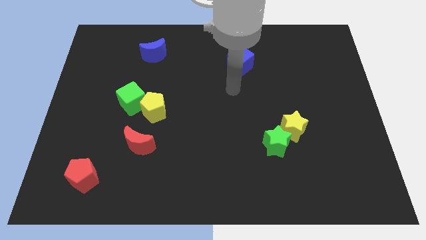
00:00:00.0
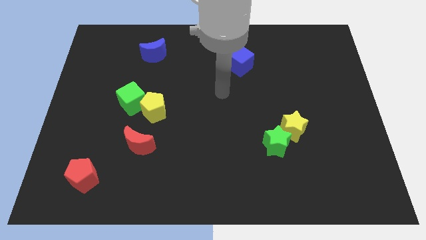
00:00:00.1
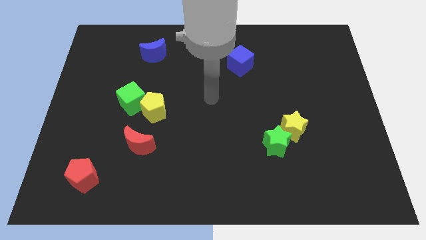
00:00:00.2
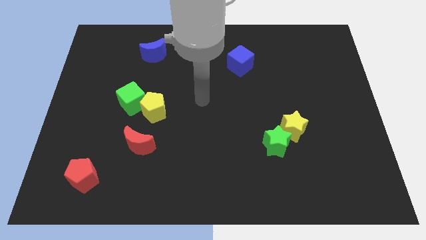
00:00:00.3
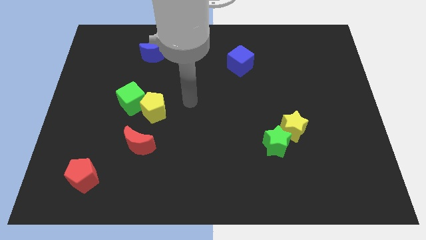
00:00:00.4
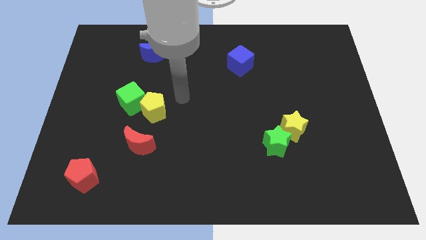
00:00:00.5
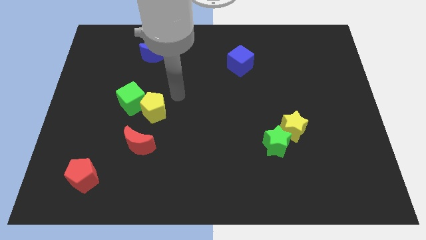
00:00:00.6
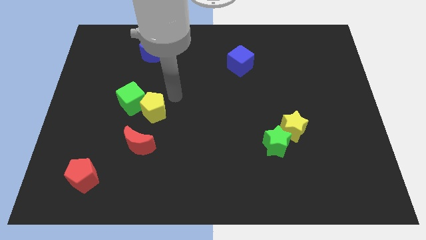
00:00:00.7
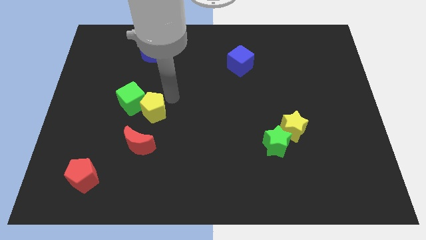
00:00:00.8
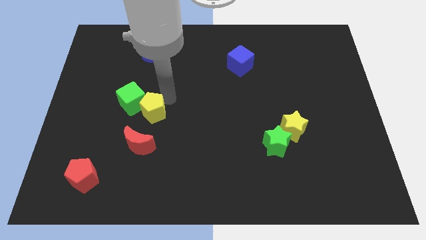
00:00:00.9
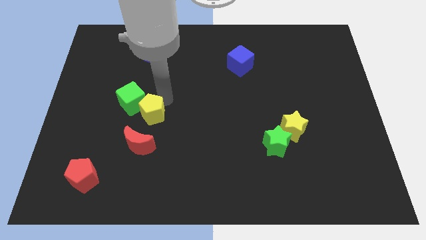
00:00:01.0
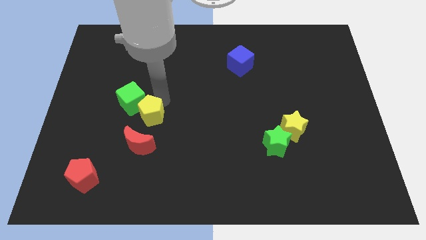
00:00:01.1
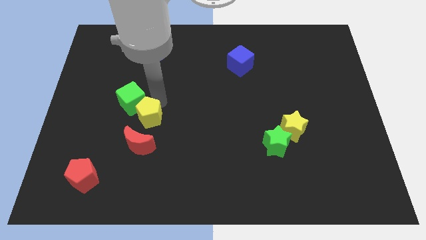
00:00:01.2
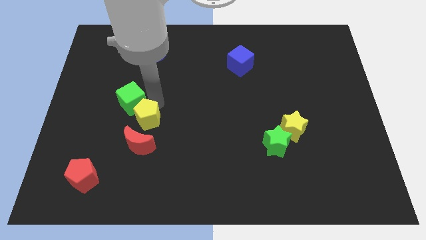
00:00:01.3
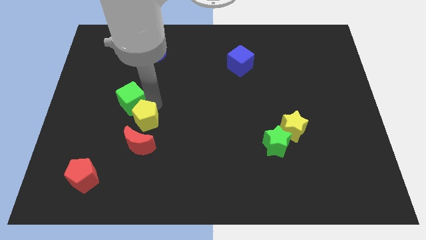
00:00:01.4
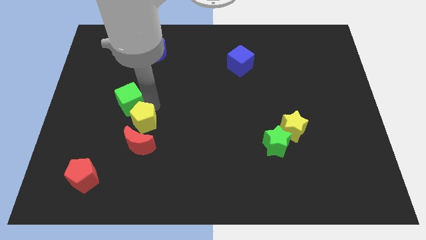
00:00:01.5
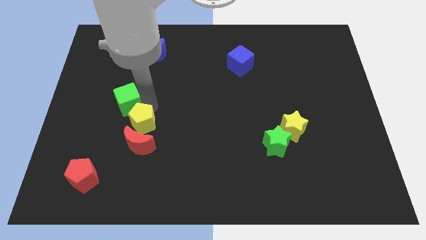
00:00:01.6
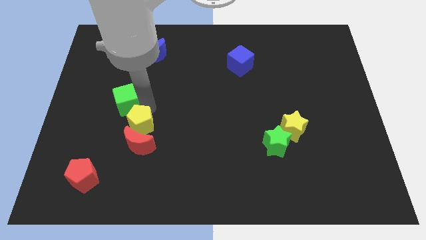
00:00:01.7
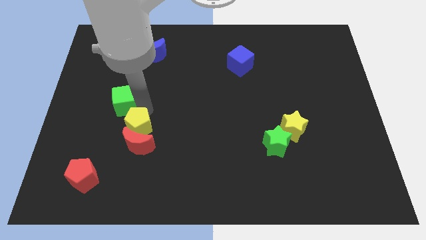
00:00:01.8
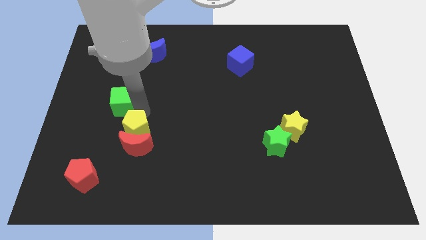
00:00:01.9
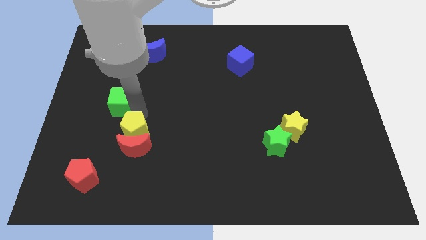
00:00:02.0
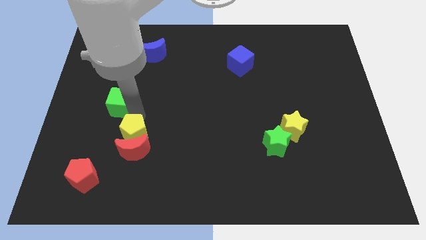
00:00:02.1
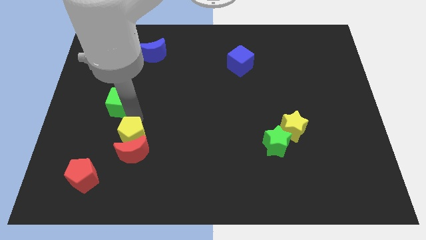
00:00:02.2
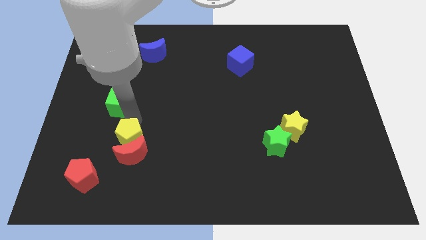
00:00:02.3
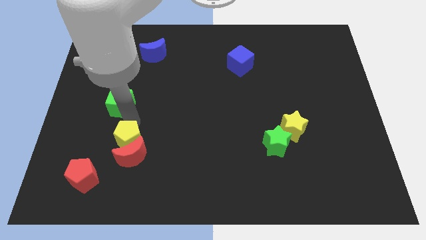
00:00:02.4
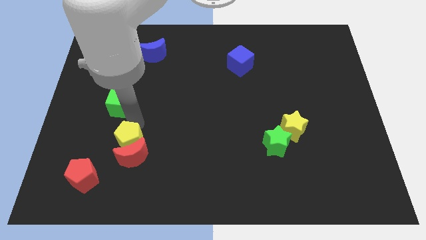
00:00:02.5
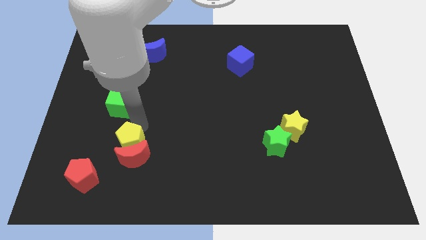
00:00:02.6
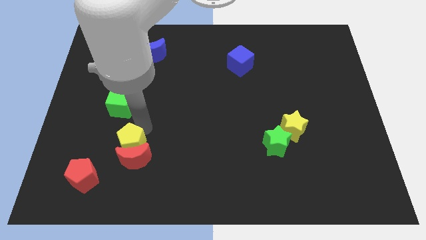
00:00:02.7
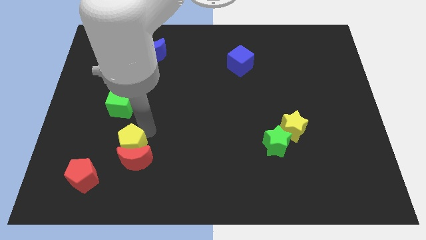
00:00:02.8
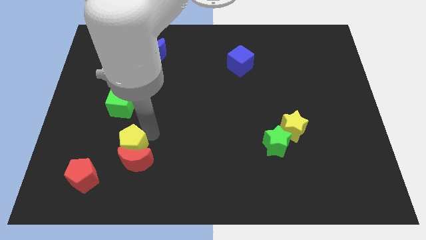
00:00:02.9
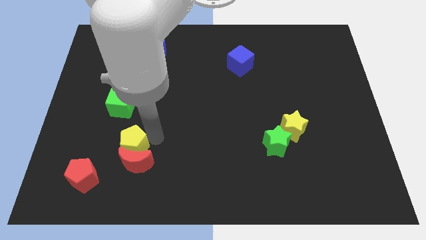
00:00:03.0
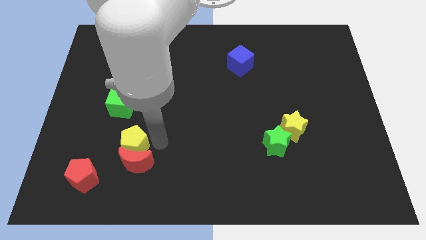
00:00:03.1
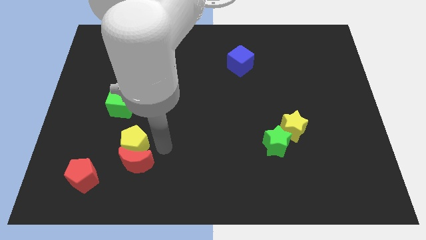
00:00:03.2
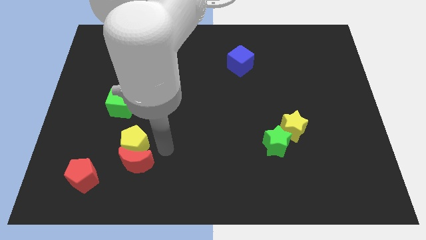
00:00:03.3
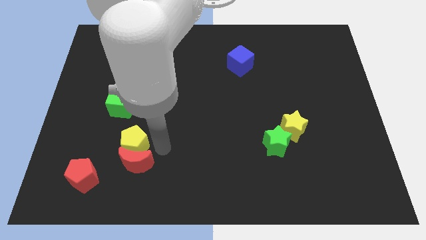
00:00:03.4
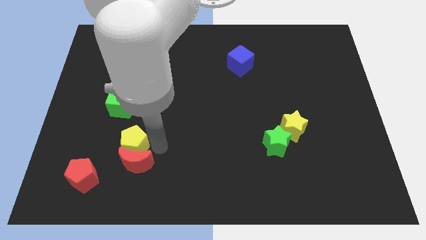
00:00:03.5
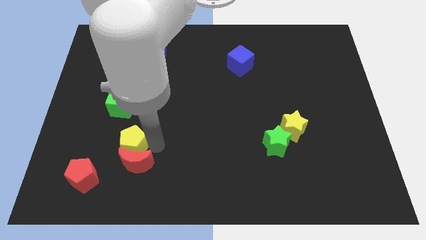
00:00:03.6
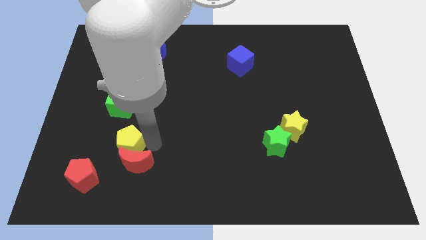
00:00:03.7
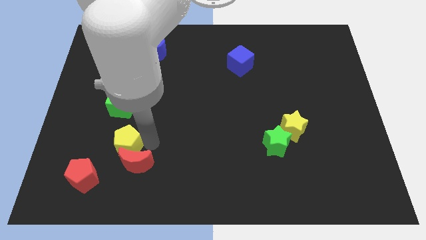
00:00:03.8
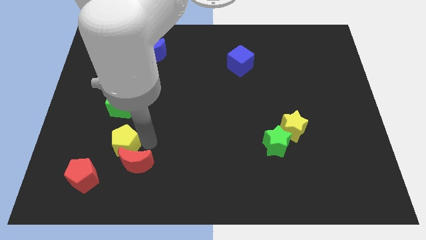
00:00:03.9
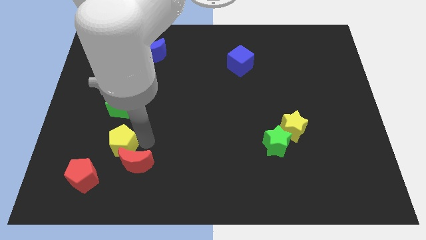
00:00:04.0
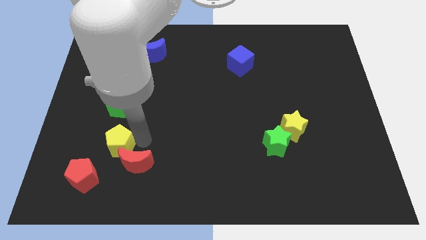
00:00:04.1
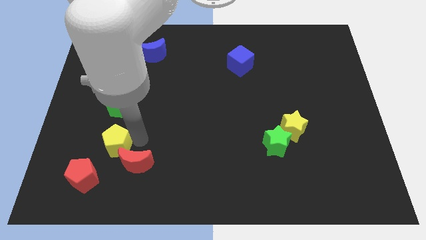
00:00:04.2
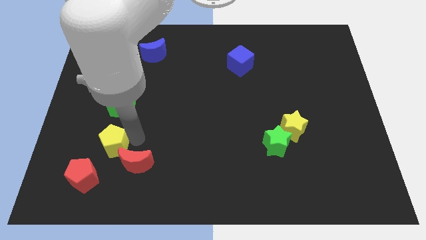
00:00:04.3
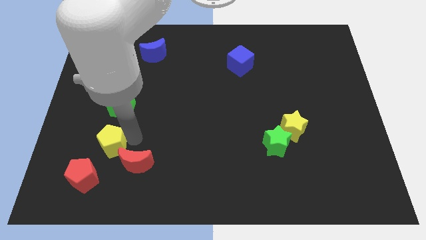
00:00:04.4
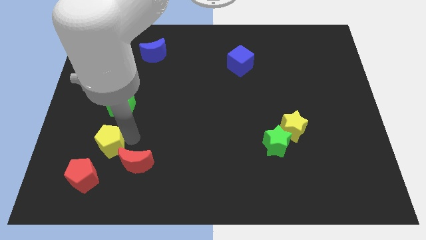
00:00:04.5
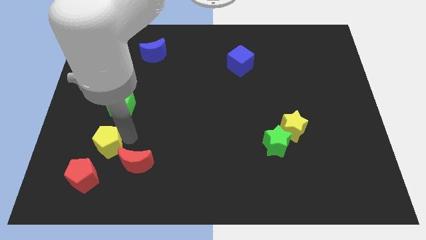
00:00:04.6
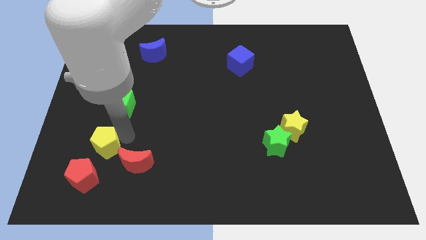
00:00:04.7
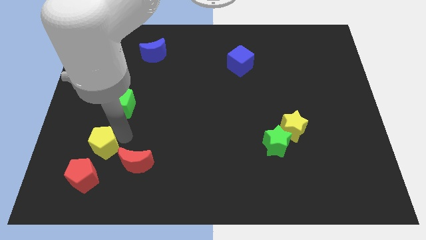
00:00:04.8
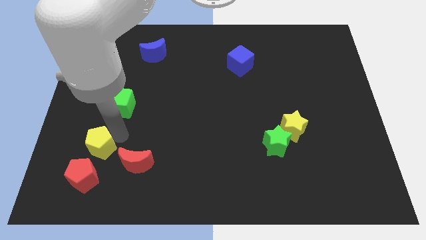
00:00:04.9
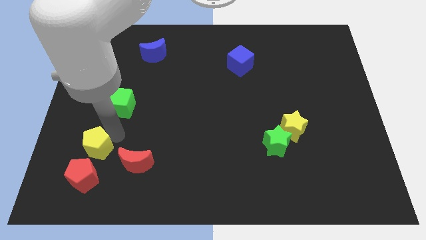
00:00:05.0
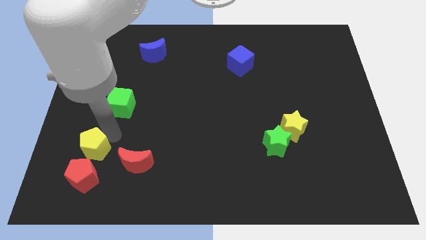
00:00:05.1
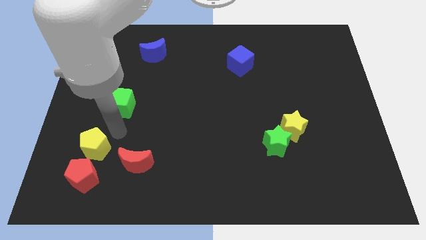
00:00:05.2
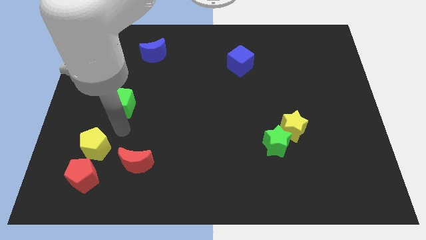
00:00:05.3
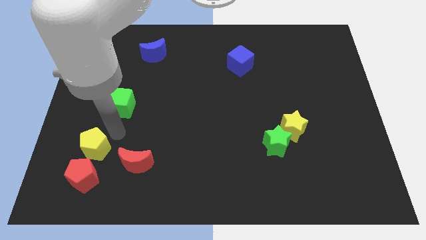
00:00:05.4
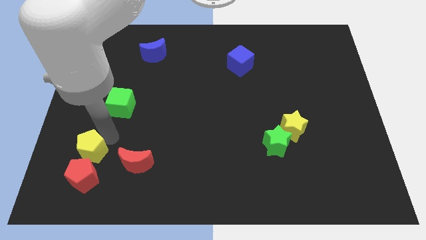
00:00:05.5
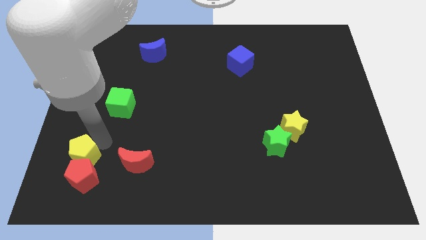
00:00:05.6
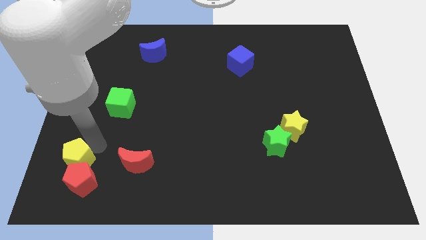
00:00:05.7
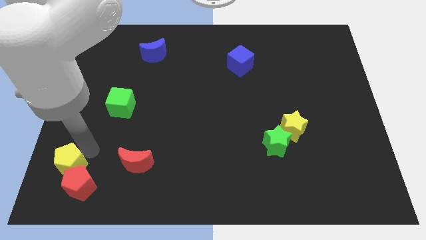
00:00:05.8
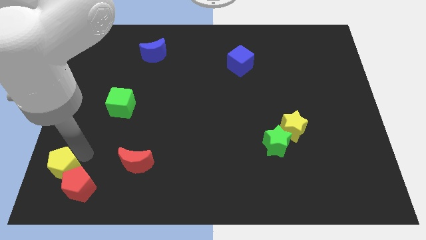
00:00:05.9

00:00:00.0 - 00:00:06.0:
push the yellow pentagon to the bottom left of the board
